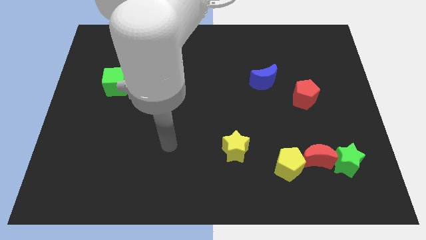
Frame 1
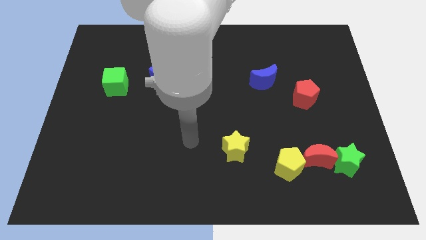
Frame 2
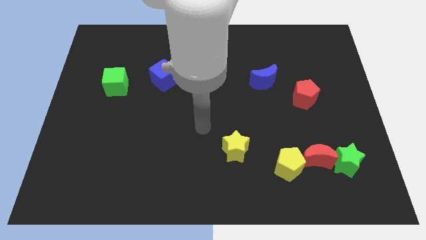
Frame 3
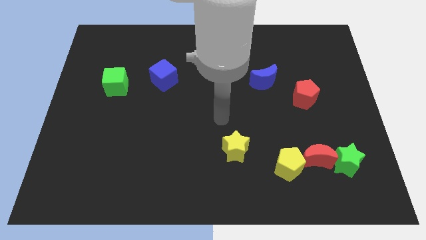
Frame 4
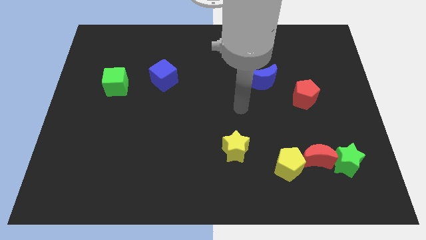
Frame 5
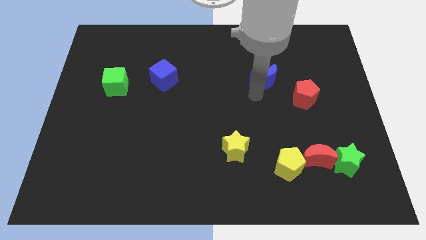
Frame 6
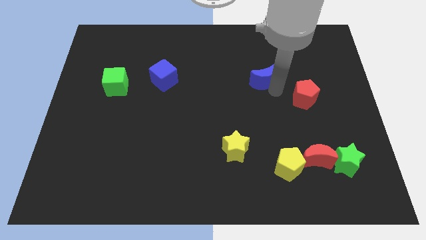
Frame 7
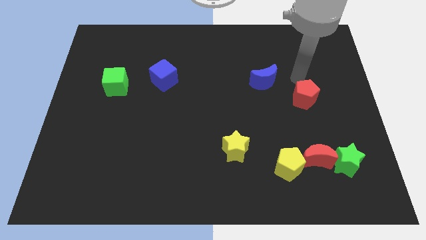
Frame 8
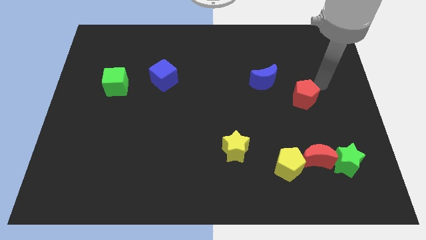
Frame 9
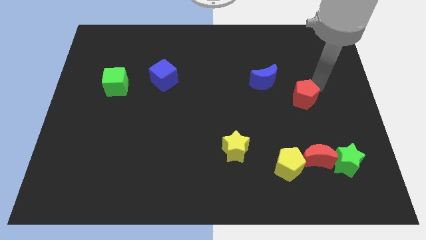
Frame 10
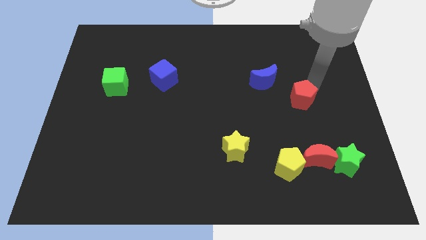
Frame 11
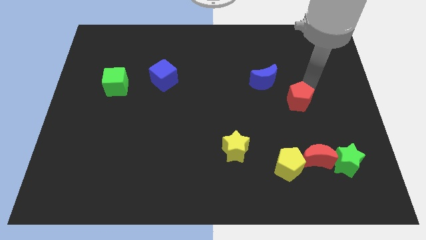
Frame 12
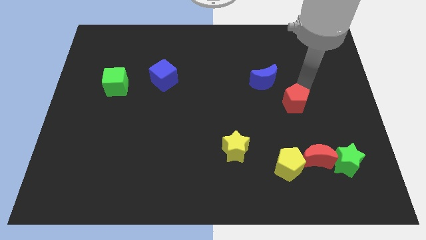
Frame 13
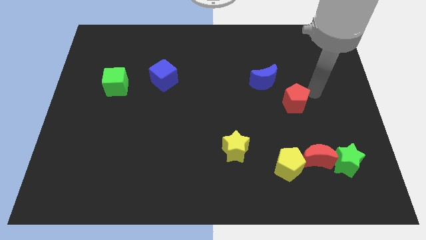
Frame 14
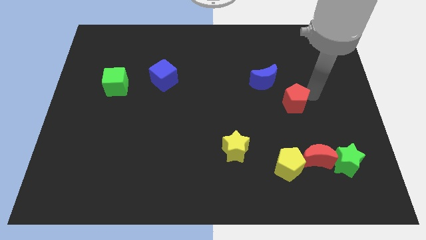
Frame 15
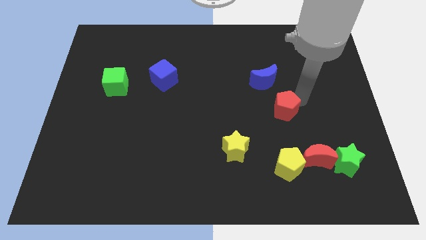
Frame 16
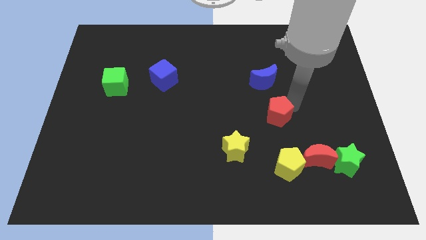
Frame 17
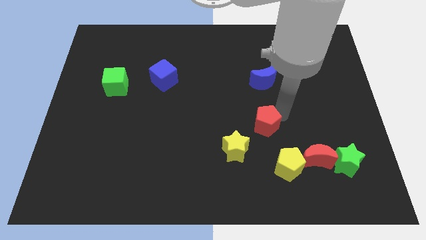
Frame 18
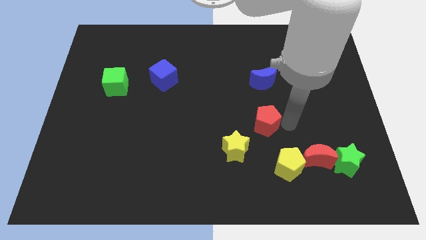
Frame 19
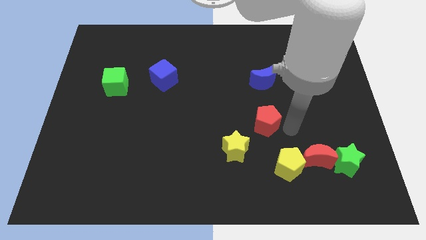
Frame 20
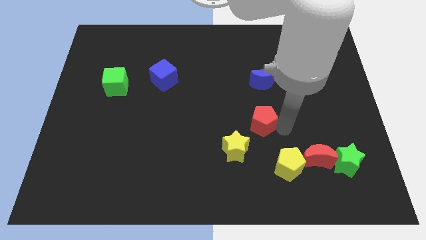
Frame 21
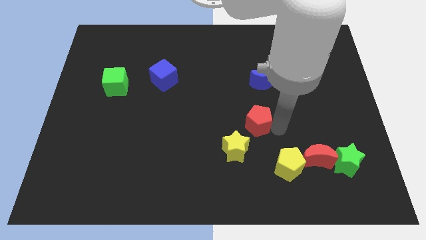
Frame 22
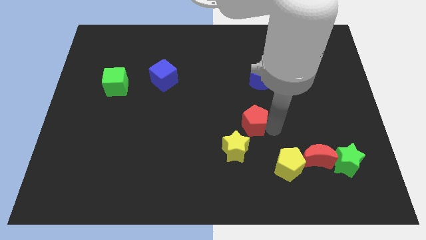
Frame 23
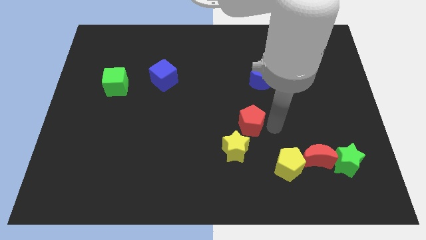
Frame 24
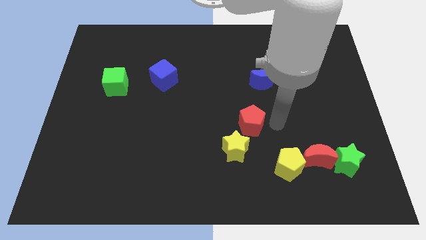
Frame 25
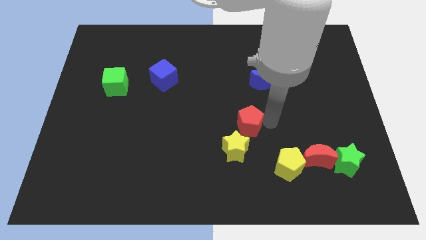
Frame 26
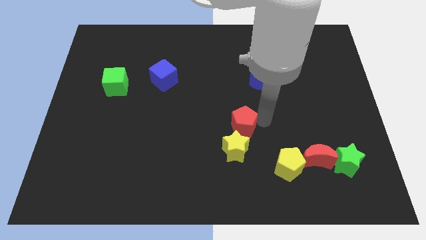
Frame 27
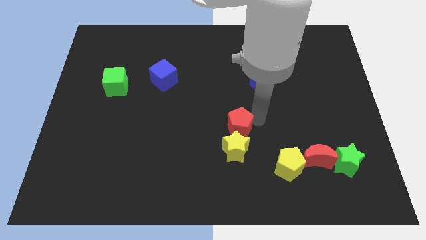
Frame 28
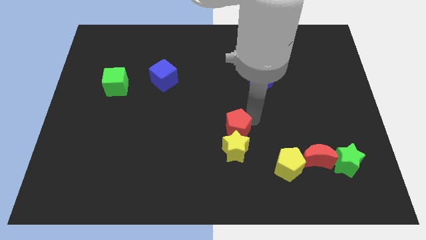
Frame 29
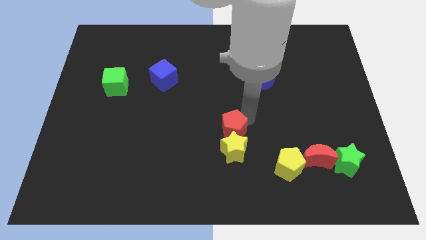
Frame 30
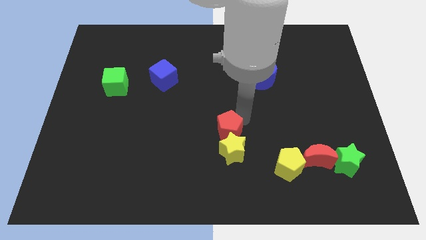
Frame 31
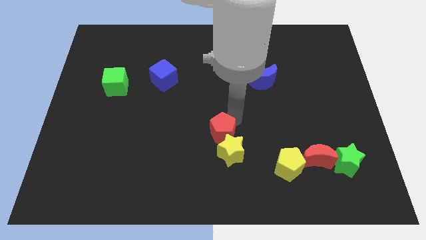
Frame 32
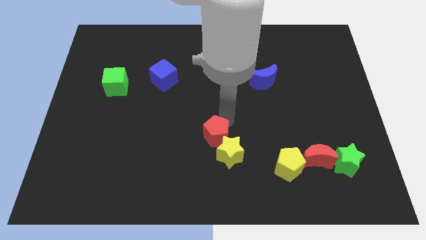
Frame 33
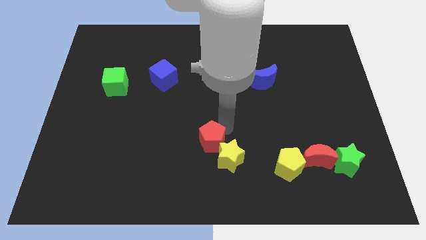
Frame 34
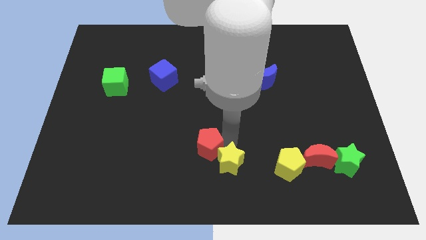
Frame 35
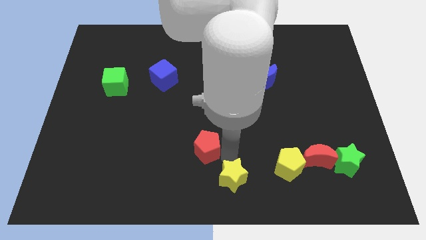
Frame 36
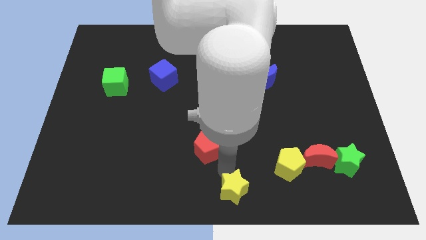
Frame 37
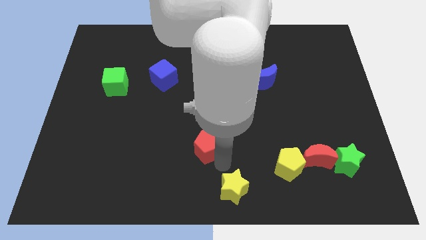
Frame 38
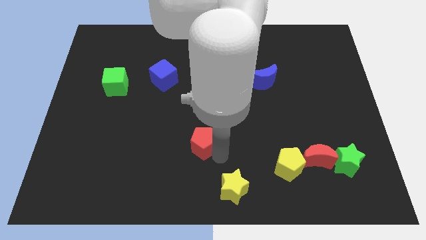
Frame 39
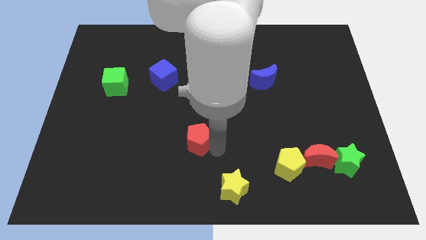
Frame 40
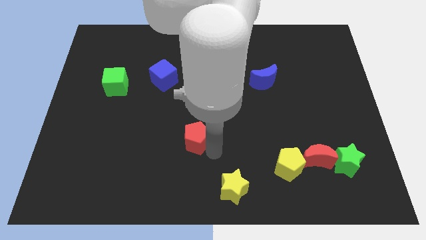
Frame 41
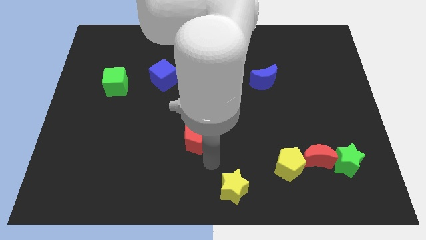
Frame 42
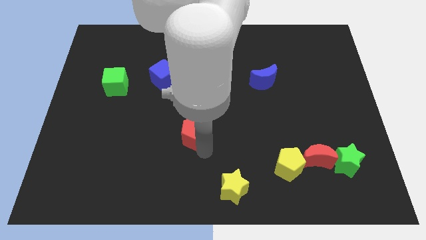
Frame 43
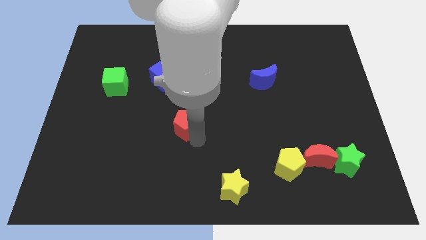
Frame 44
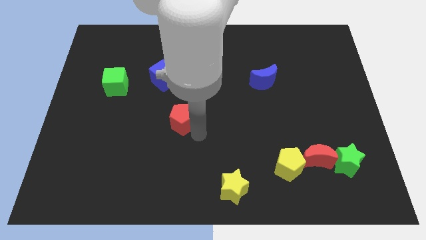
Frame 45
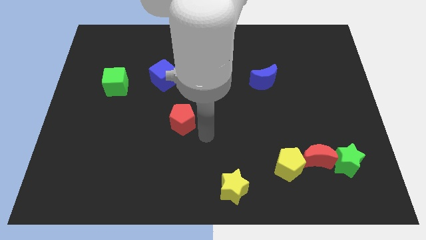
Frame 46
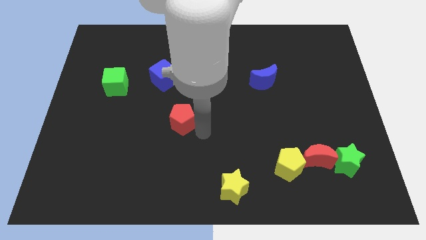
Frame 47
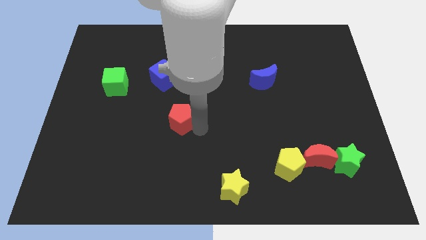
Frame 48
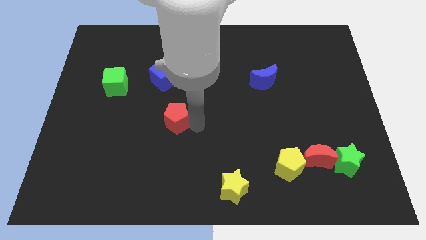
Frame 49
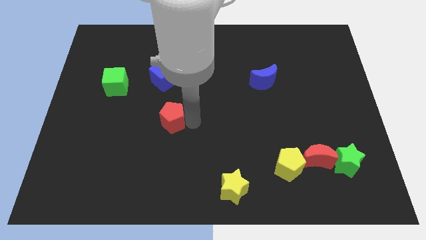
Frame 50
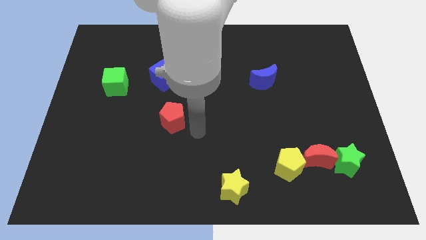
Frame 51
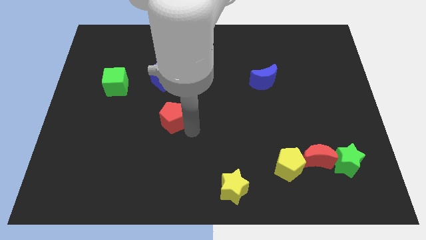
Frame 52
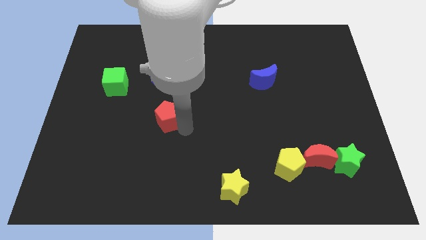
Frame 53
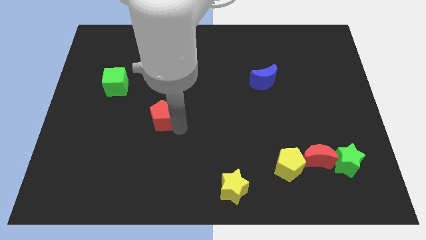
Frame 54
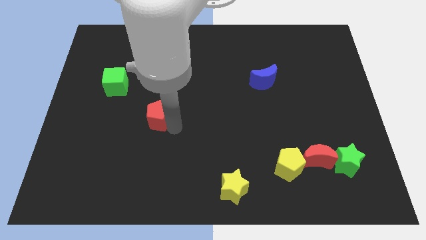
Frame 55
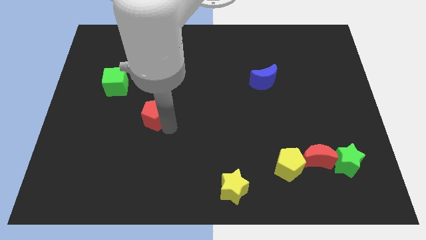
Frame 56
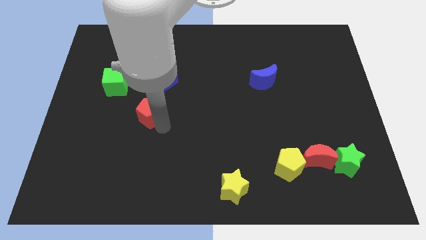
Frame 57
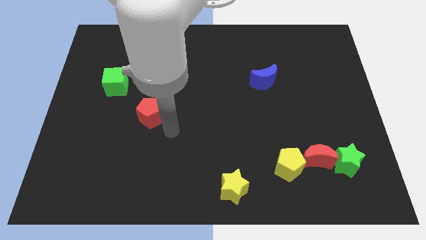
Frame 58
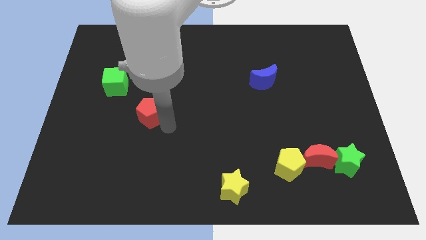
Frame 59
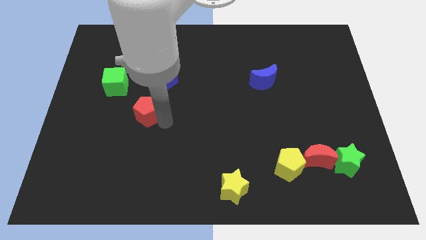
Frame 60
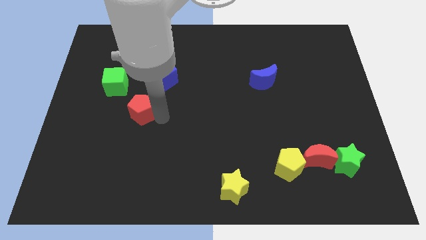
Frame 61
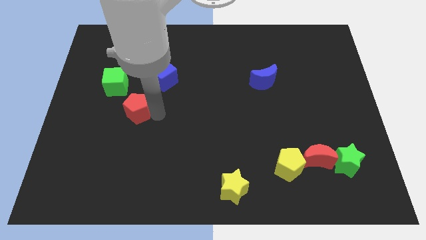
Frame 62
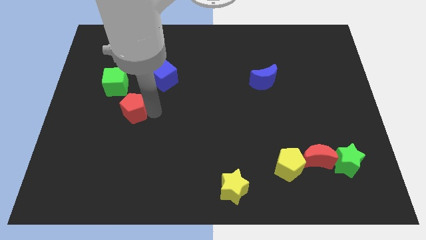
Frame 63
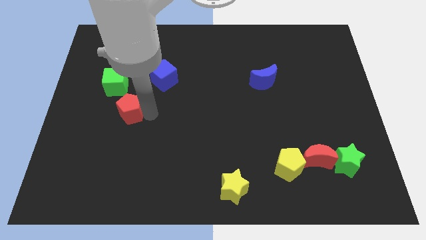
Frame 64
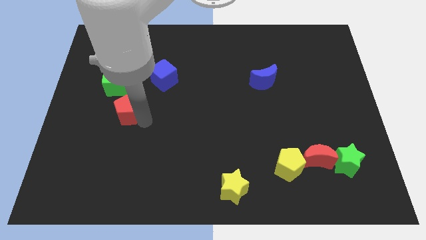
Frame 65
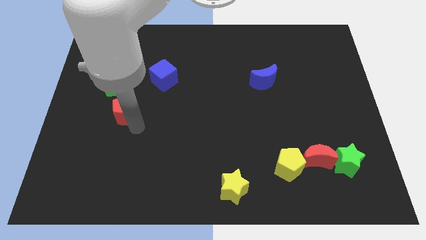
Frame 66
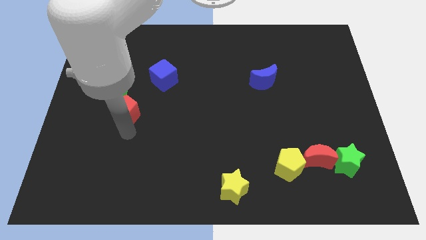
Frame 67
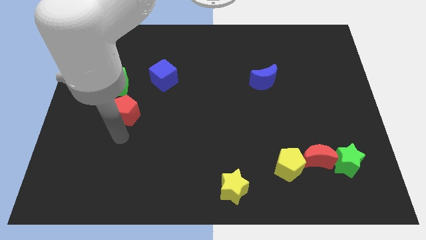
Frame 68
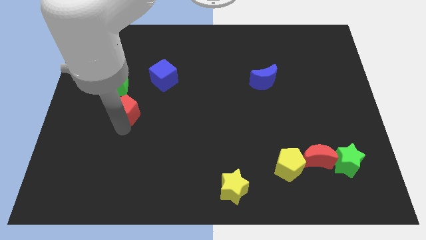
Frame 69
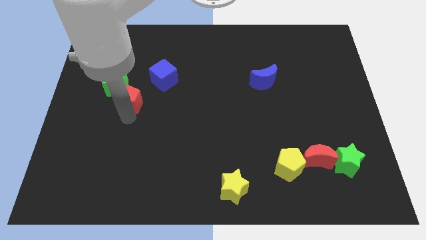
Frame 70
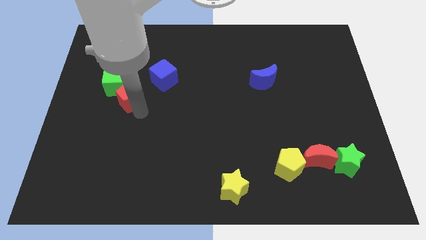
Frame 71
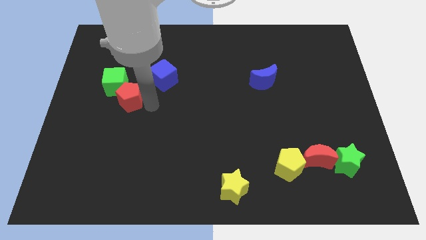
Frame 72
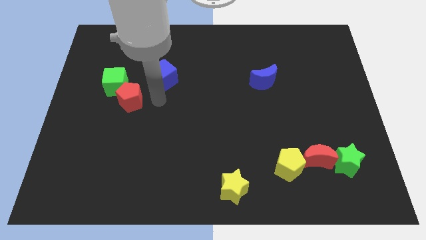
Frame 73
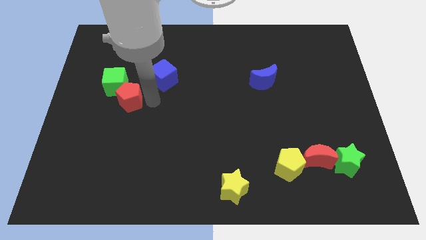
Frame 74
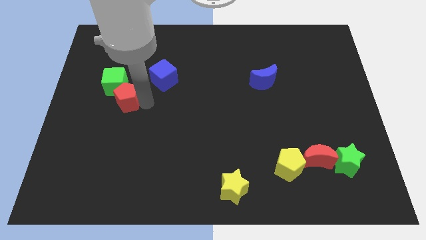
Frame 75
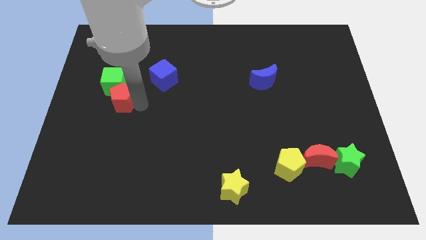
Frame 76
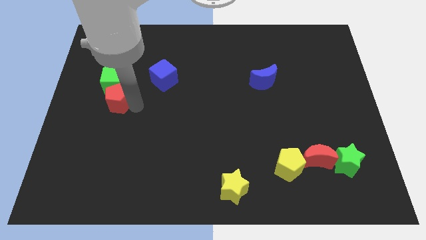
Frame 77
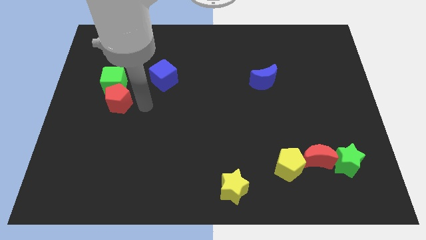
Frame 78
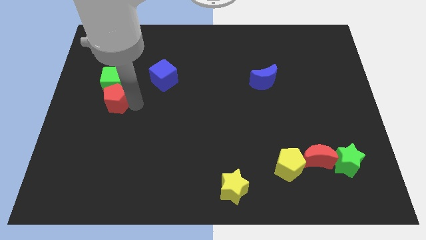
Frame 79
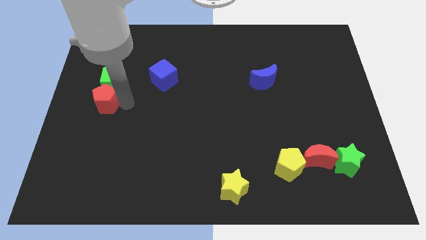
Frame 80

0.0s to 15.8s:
push the red pentagon to the left side of the board
